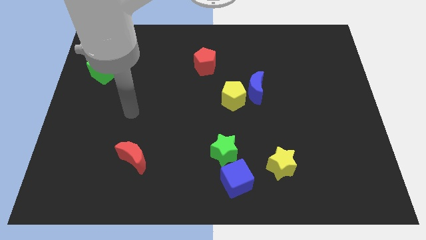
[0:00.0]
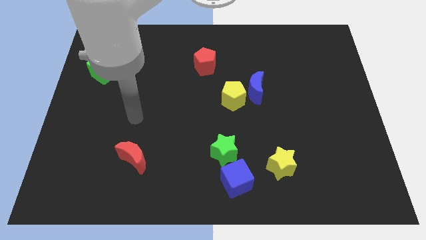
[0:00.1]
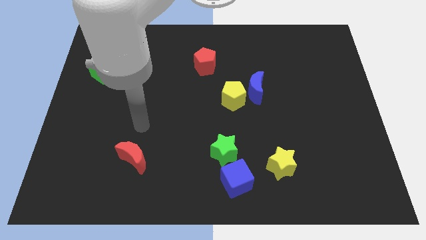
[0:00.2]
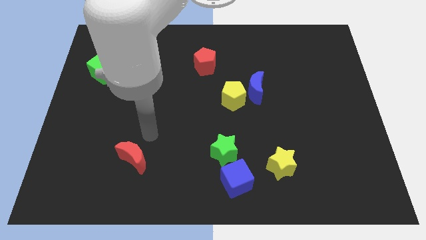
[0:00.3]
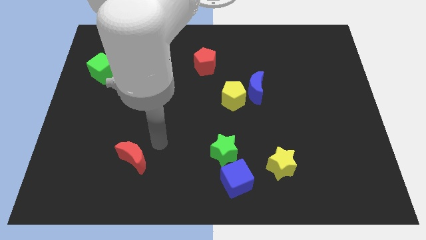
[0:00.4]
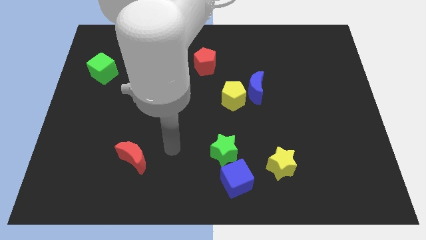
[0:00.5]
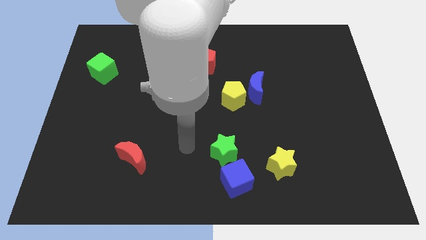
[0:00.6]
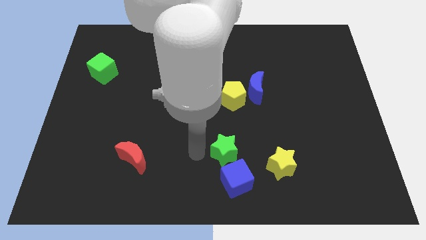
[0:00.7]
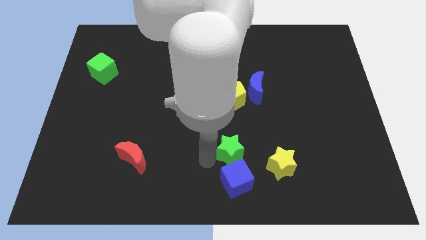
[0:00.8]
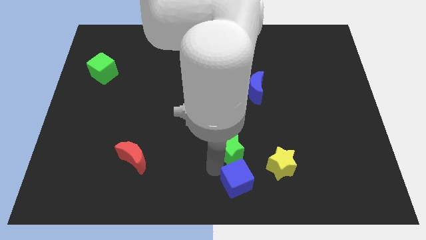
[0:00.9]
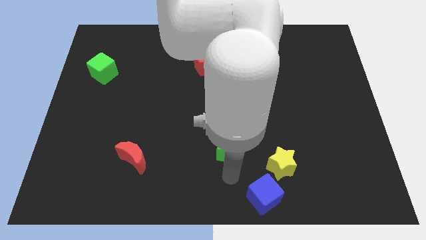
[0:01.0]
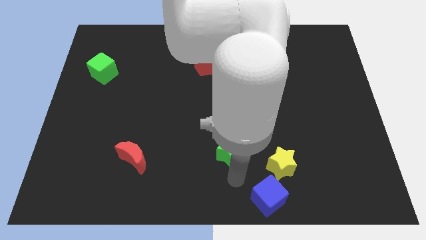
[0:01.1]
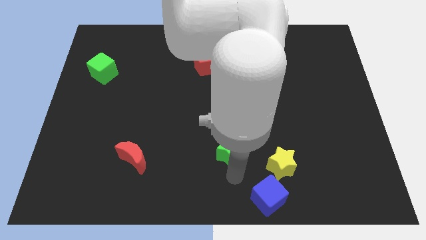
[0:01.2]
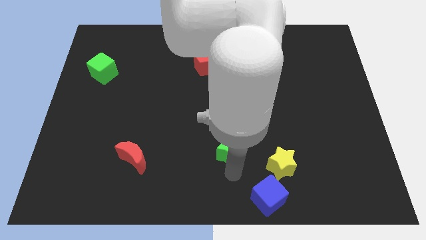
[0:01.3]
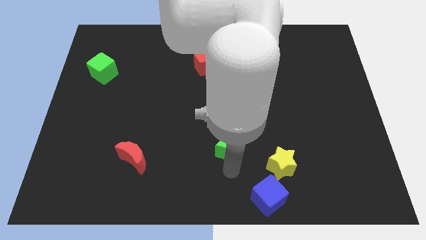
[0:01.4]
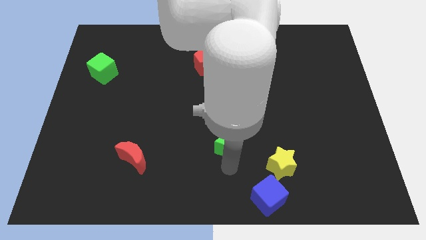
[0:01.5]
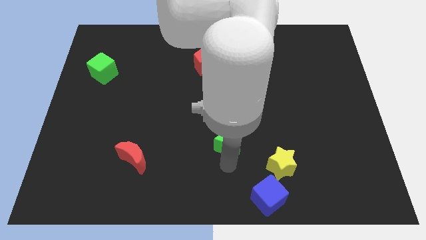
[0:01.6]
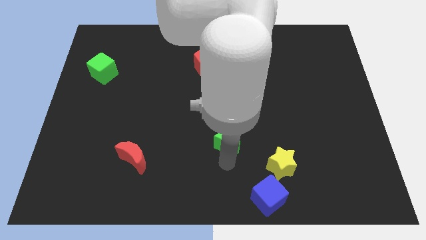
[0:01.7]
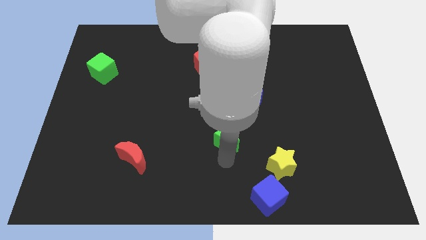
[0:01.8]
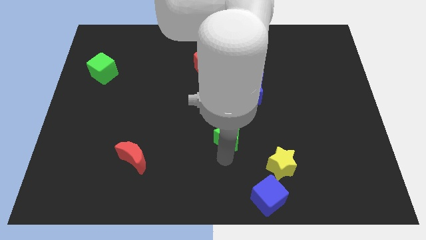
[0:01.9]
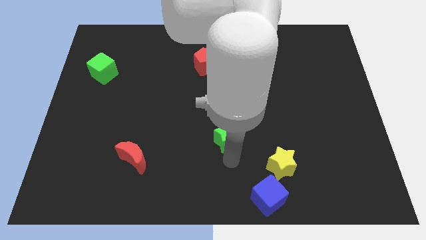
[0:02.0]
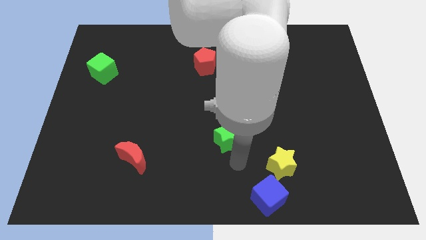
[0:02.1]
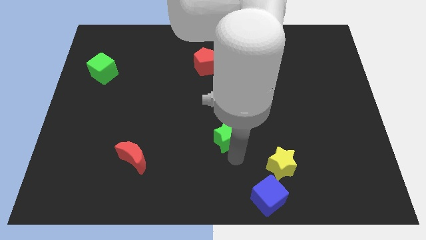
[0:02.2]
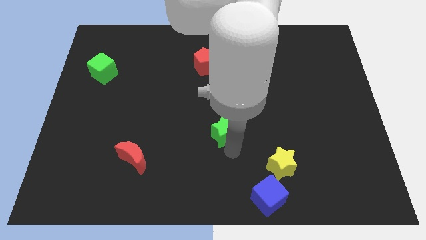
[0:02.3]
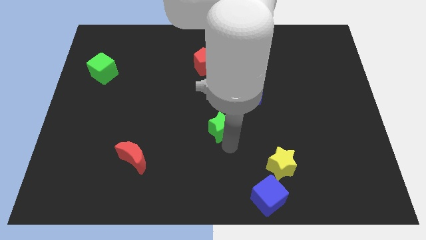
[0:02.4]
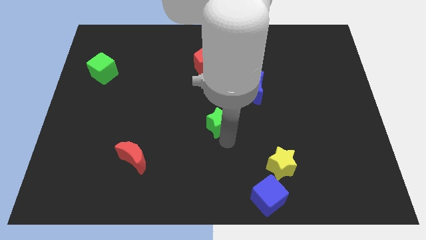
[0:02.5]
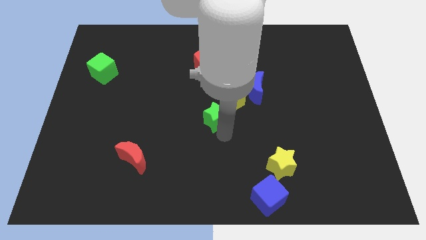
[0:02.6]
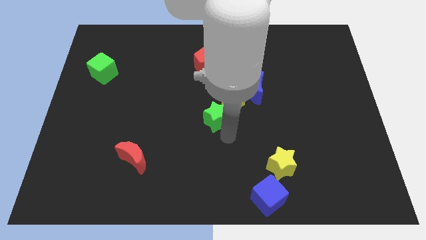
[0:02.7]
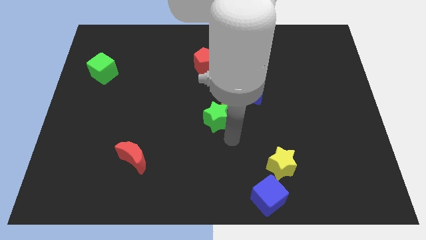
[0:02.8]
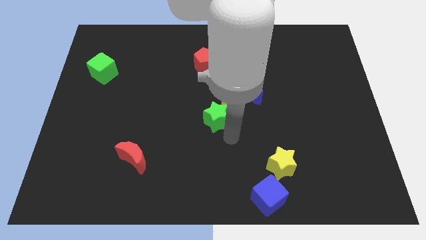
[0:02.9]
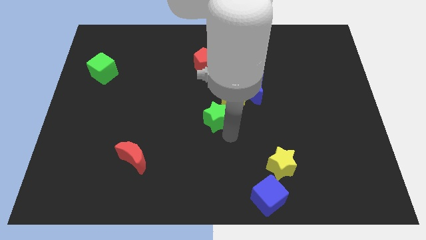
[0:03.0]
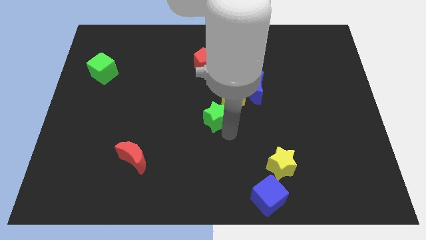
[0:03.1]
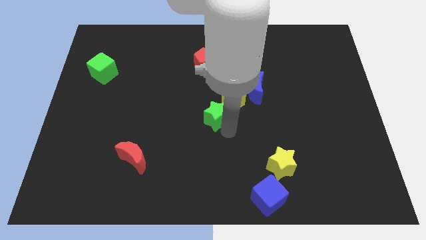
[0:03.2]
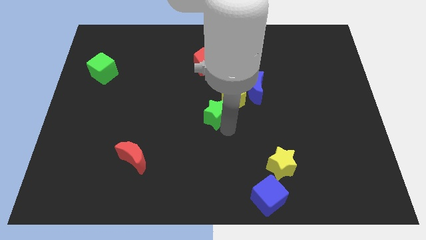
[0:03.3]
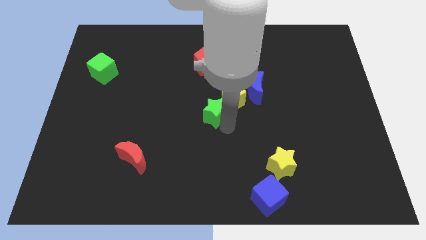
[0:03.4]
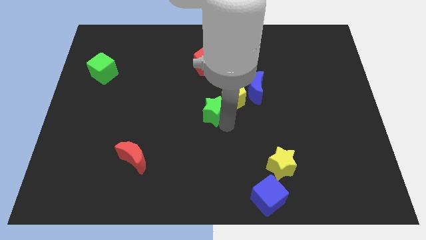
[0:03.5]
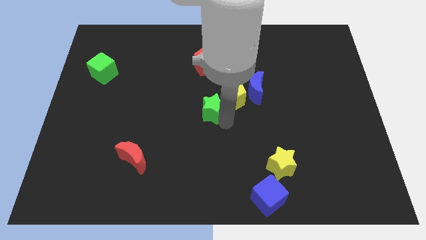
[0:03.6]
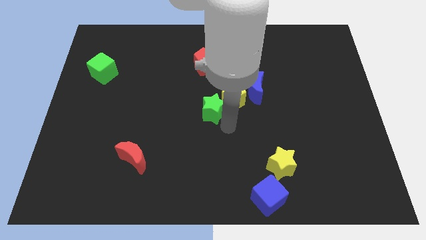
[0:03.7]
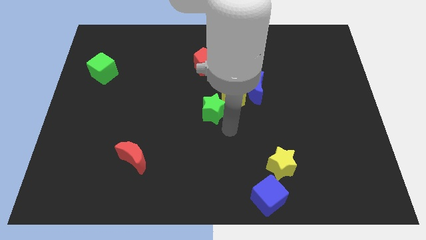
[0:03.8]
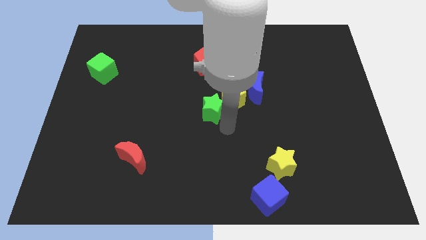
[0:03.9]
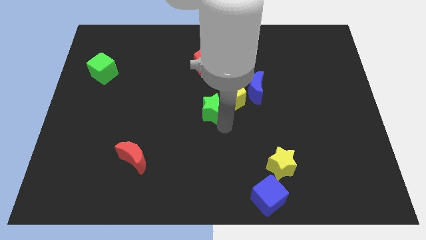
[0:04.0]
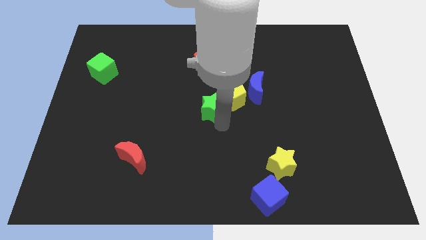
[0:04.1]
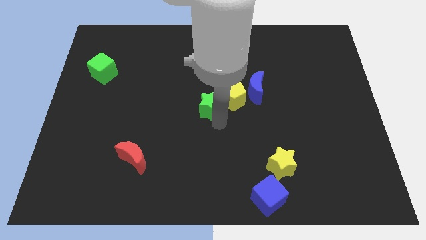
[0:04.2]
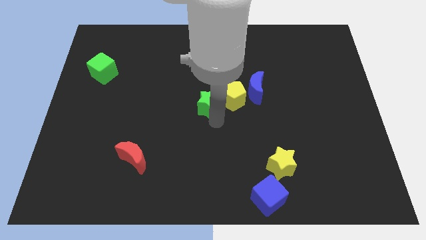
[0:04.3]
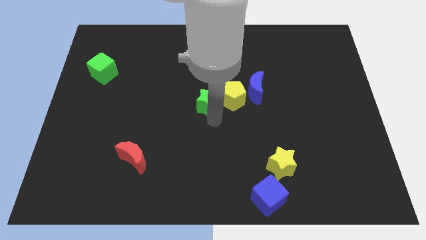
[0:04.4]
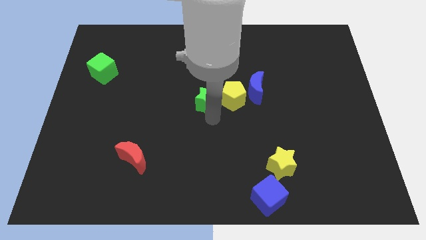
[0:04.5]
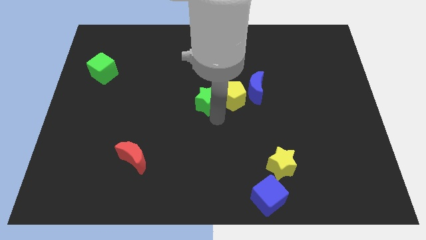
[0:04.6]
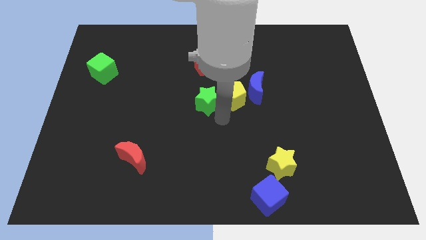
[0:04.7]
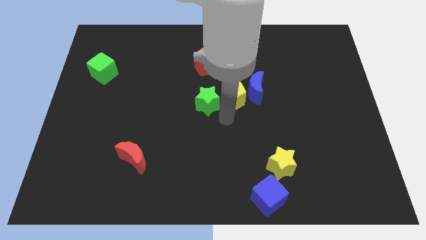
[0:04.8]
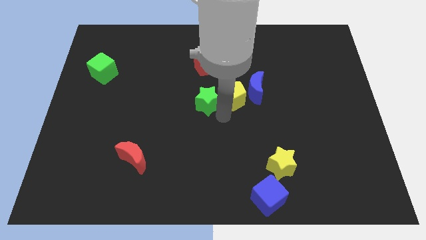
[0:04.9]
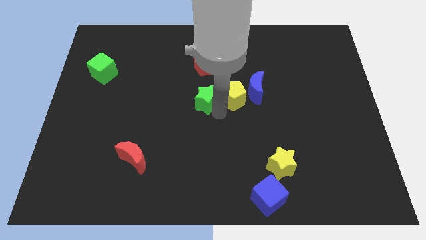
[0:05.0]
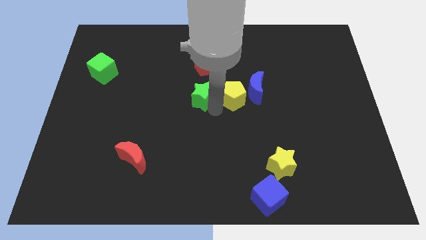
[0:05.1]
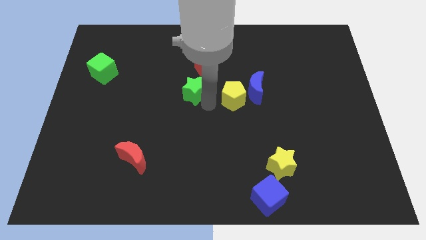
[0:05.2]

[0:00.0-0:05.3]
slide the green star to the bottom left of the red pentagon

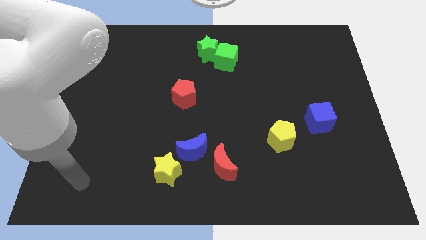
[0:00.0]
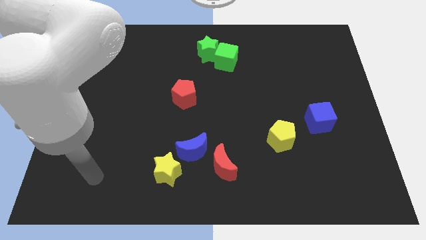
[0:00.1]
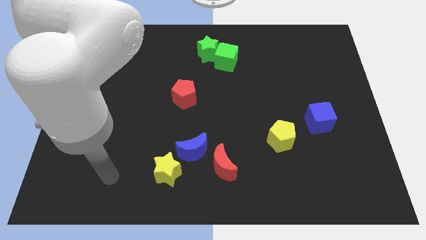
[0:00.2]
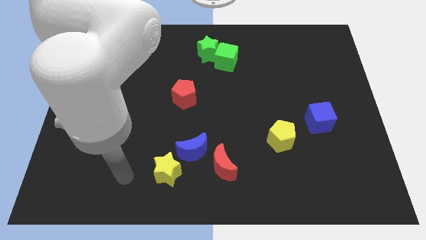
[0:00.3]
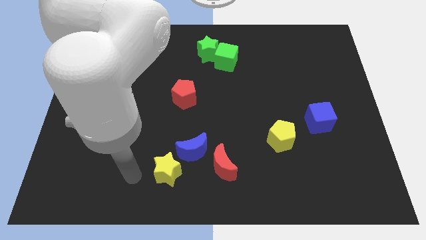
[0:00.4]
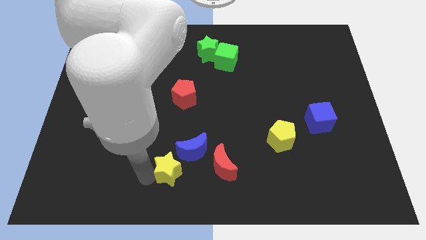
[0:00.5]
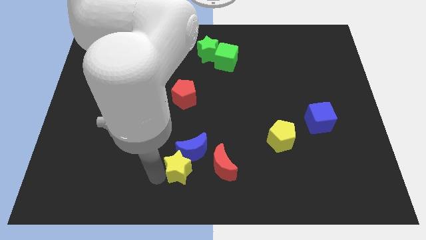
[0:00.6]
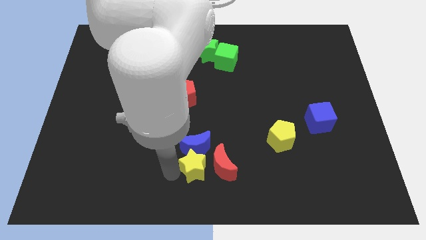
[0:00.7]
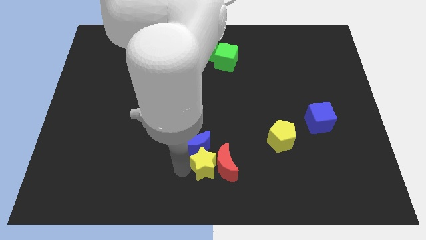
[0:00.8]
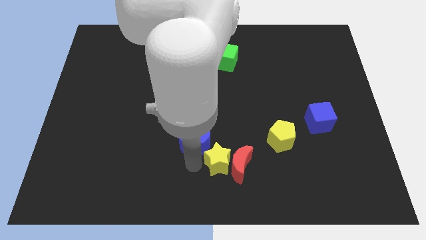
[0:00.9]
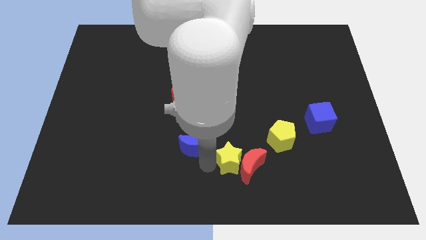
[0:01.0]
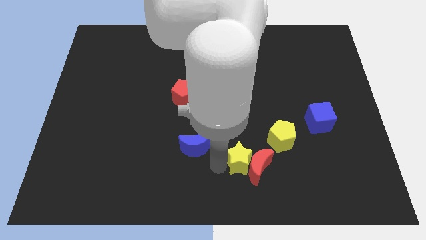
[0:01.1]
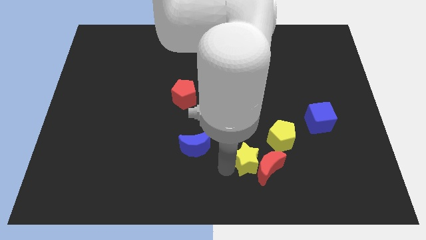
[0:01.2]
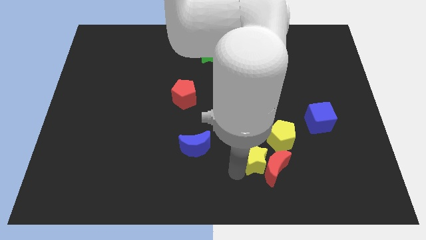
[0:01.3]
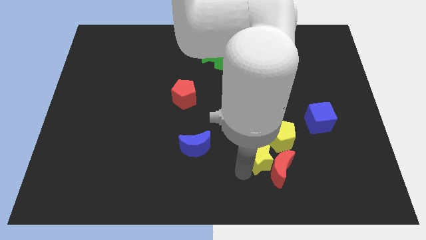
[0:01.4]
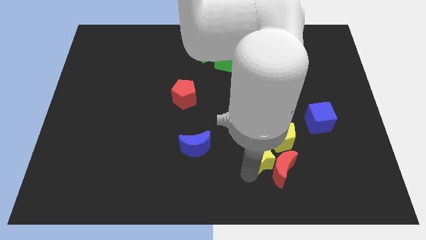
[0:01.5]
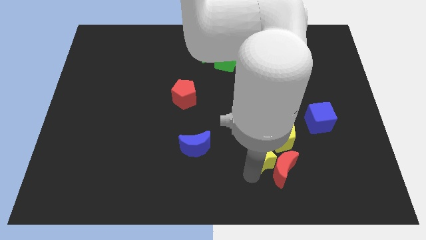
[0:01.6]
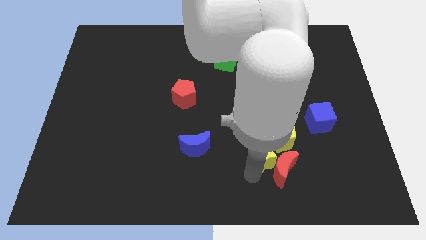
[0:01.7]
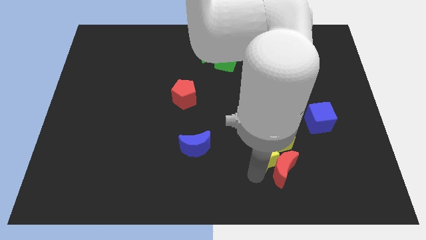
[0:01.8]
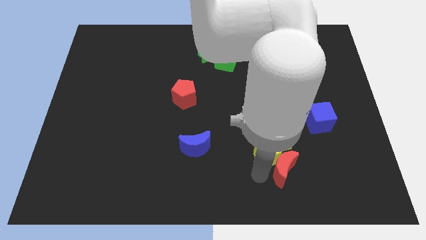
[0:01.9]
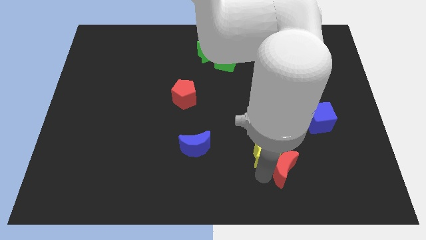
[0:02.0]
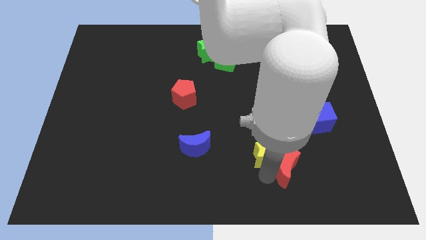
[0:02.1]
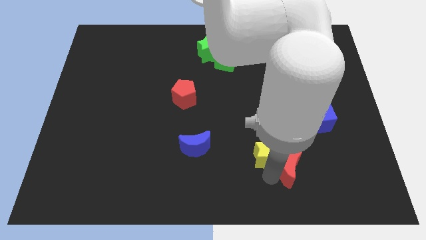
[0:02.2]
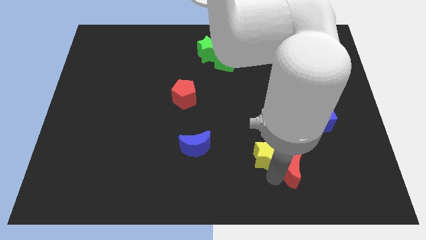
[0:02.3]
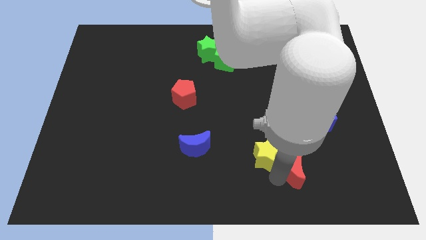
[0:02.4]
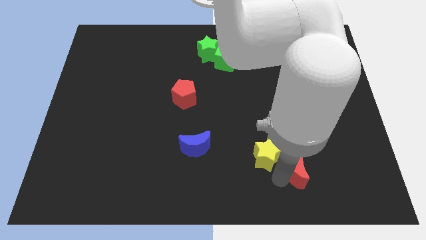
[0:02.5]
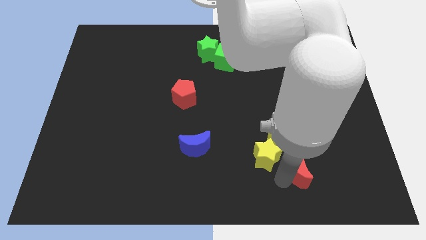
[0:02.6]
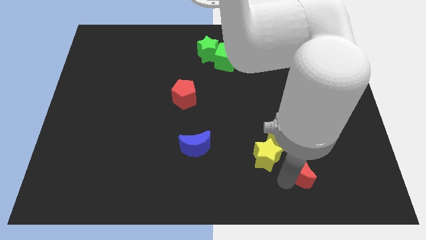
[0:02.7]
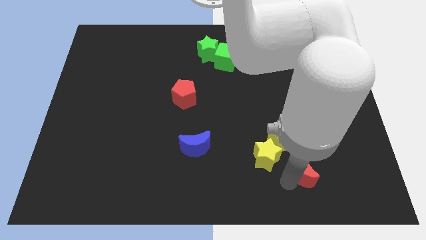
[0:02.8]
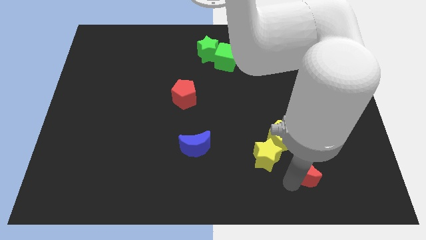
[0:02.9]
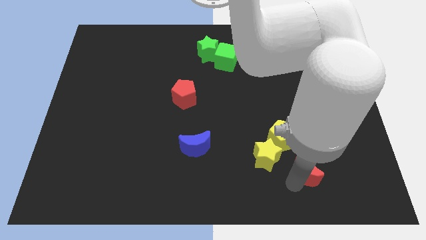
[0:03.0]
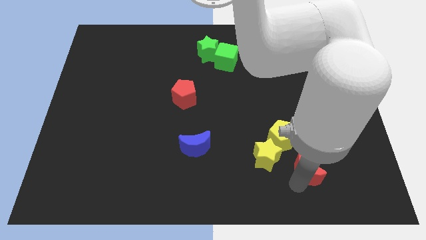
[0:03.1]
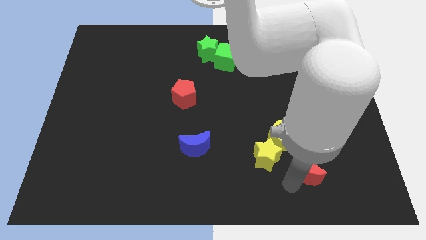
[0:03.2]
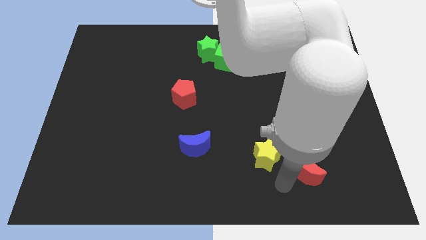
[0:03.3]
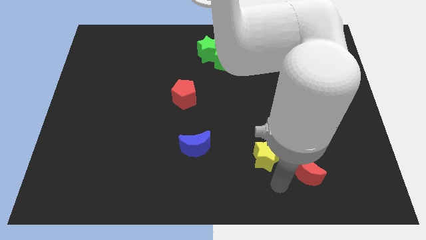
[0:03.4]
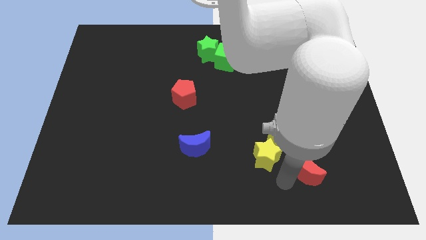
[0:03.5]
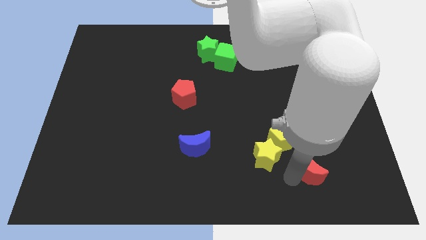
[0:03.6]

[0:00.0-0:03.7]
move the red moon to the bottom of the blue cube
